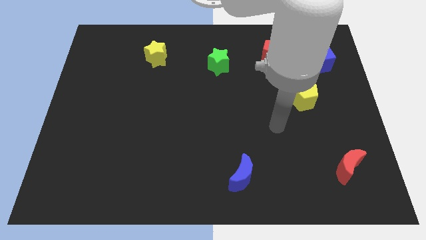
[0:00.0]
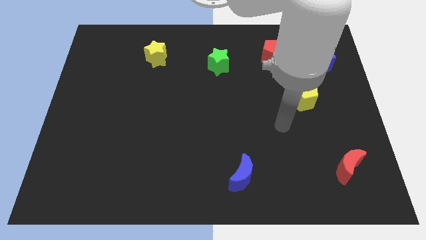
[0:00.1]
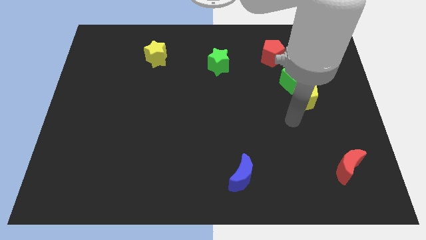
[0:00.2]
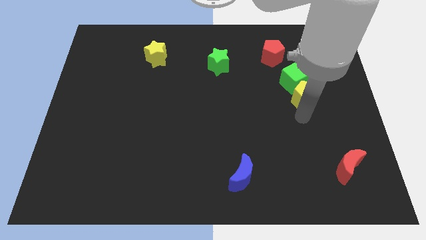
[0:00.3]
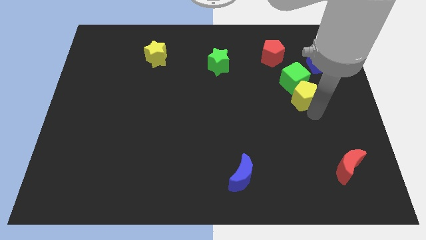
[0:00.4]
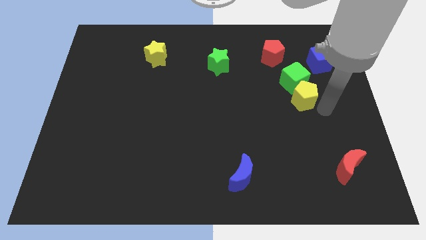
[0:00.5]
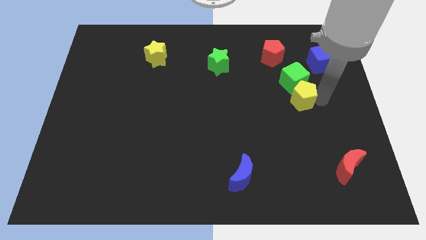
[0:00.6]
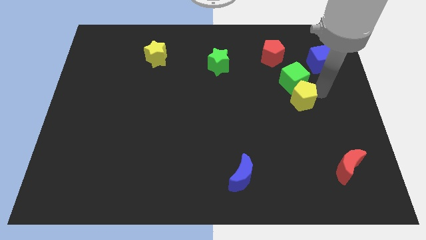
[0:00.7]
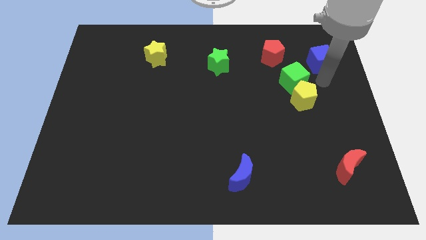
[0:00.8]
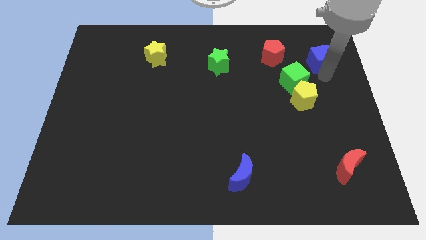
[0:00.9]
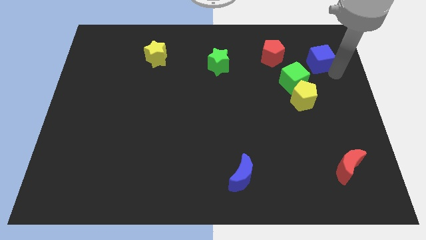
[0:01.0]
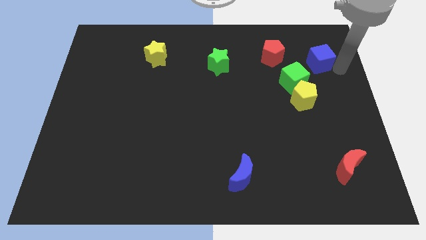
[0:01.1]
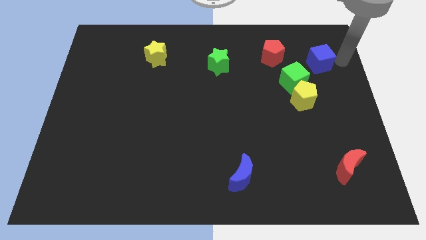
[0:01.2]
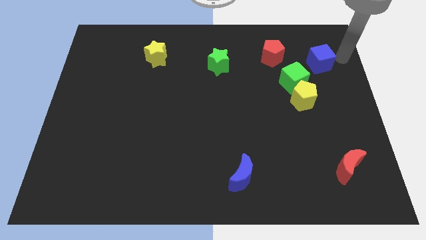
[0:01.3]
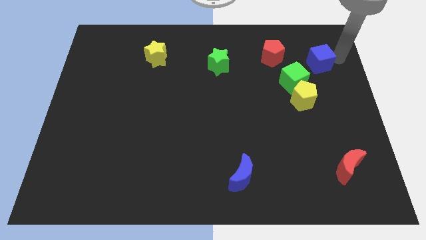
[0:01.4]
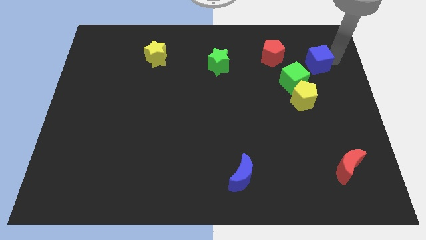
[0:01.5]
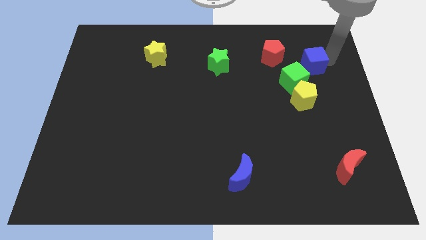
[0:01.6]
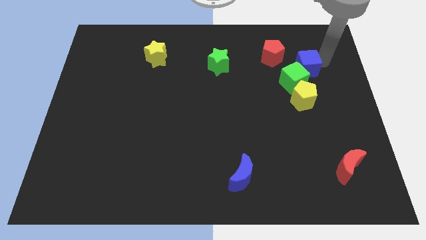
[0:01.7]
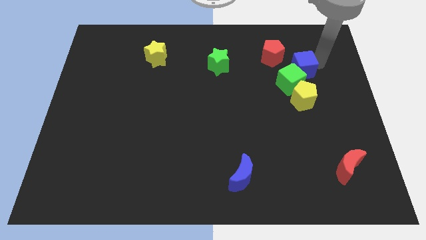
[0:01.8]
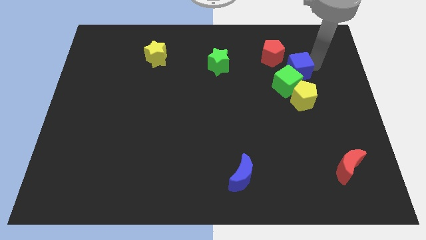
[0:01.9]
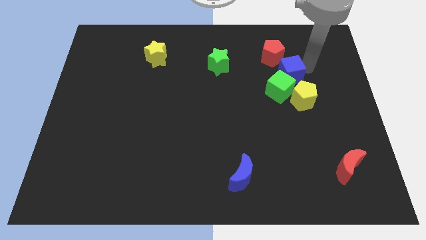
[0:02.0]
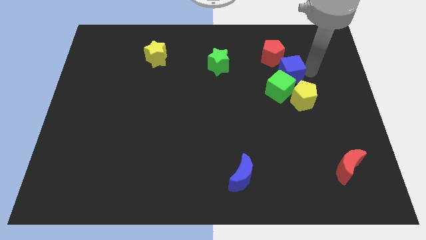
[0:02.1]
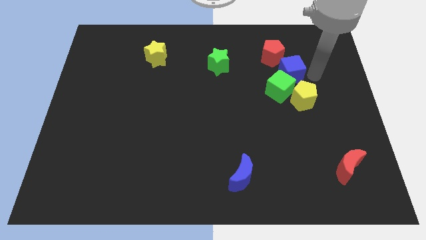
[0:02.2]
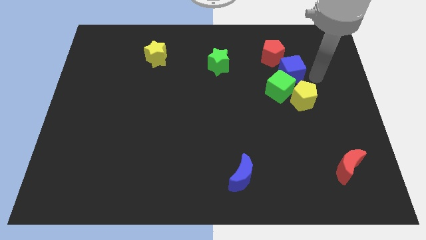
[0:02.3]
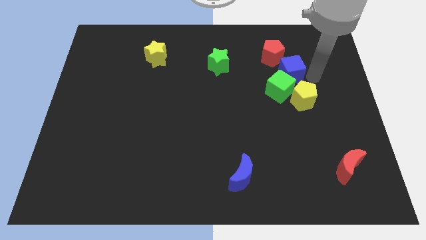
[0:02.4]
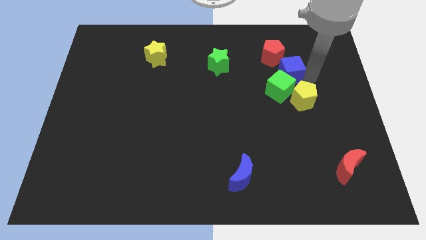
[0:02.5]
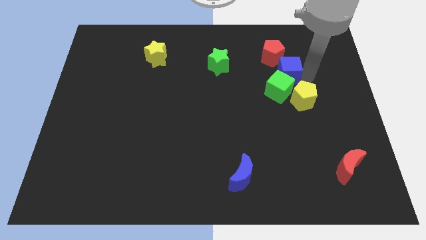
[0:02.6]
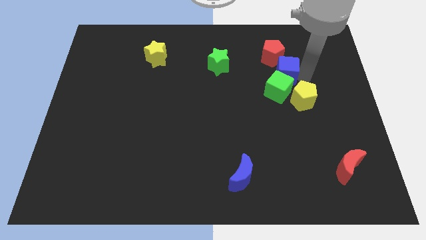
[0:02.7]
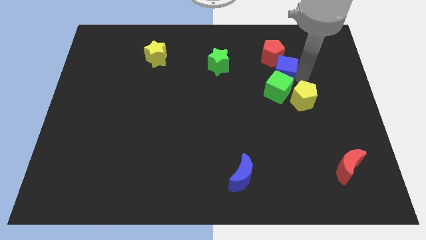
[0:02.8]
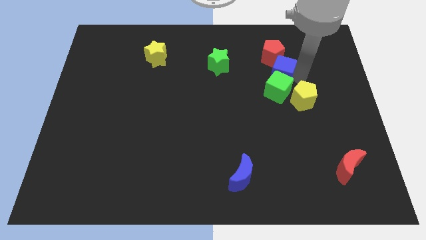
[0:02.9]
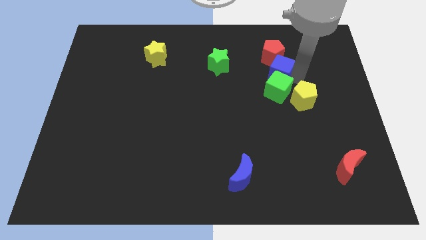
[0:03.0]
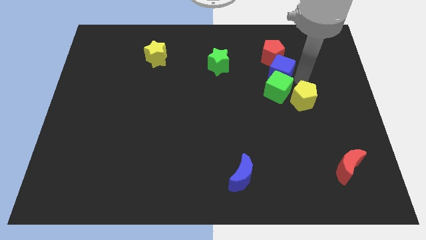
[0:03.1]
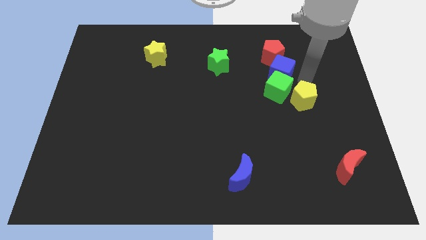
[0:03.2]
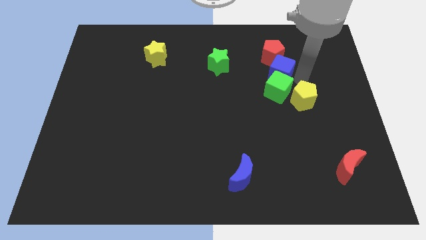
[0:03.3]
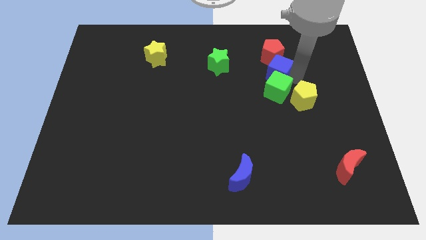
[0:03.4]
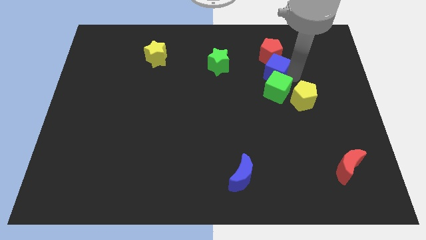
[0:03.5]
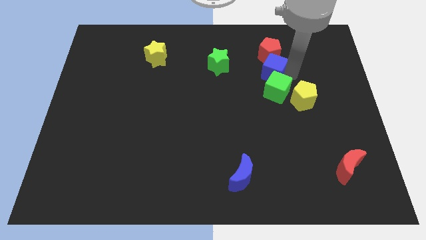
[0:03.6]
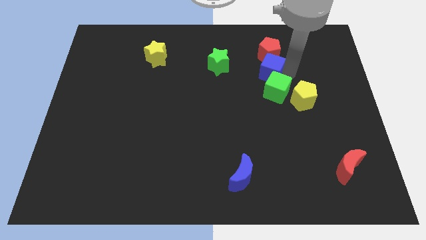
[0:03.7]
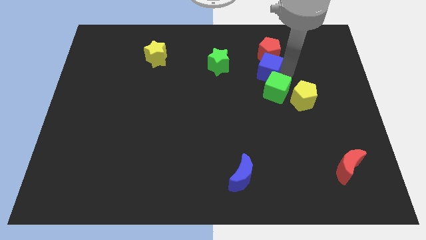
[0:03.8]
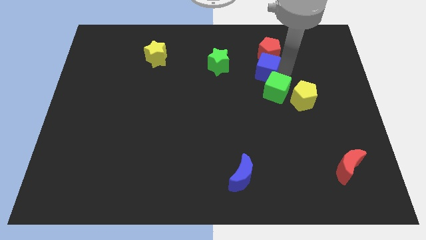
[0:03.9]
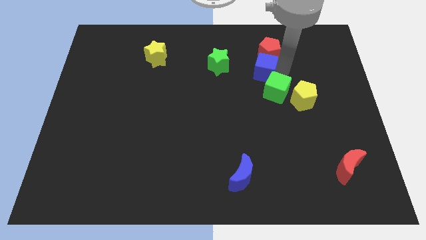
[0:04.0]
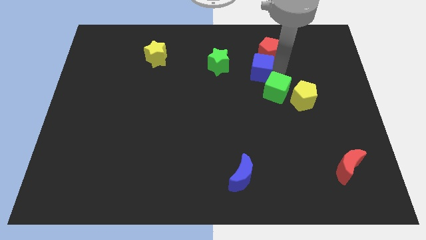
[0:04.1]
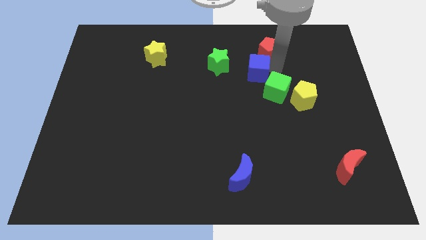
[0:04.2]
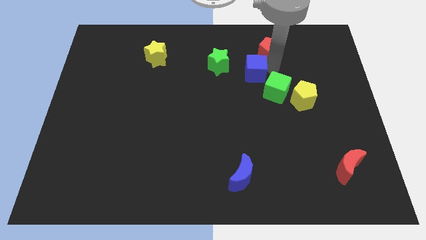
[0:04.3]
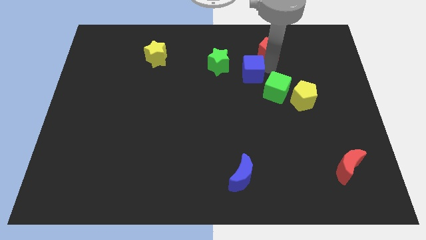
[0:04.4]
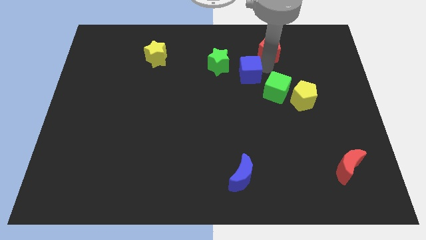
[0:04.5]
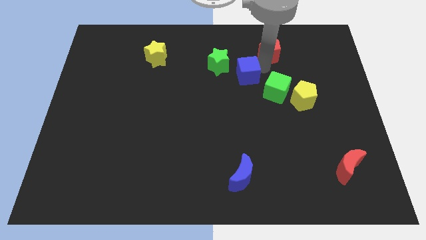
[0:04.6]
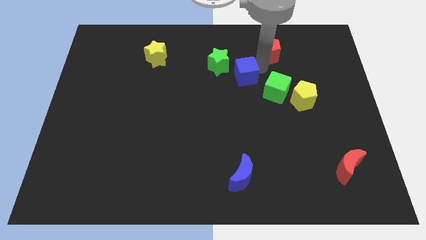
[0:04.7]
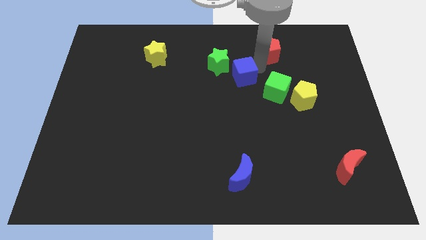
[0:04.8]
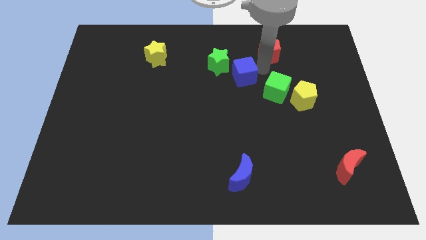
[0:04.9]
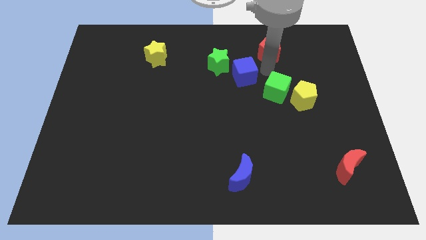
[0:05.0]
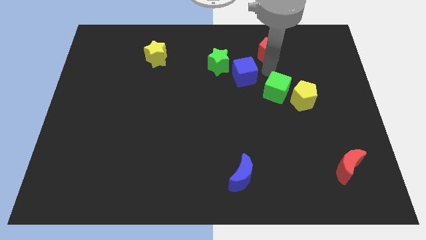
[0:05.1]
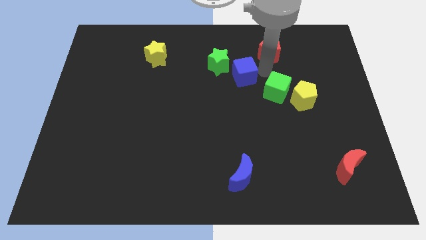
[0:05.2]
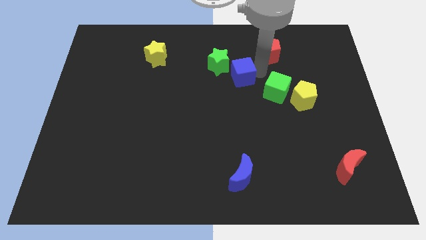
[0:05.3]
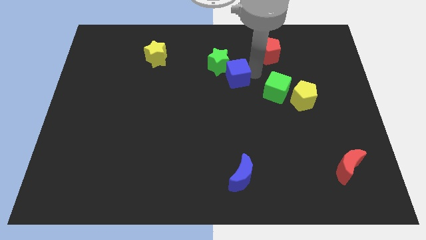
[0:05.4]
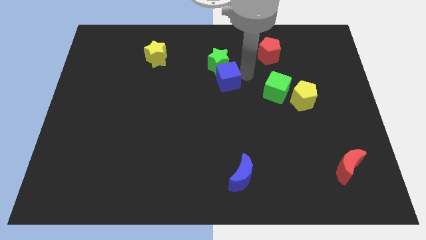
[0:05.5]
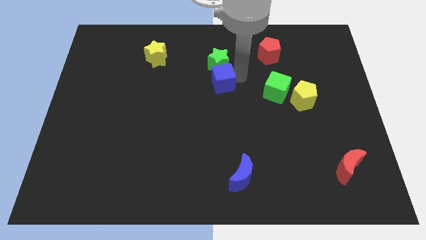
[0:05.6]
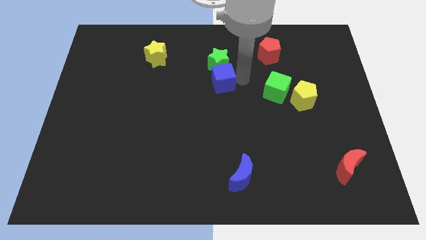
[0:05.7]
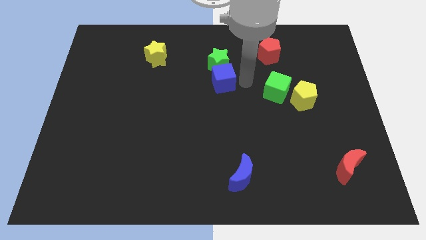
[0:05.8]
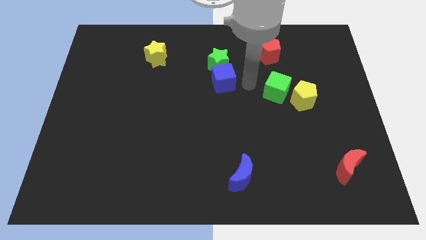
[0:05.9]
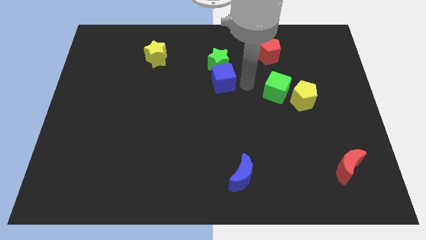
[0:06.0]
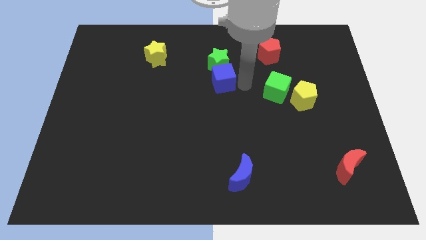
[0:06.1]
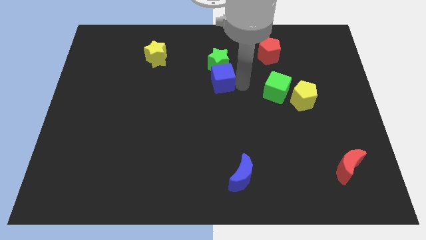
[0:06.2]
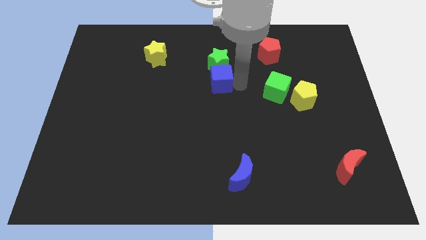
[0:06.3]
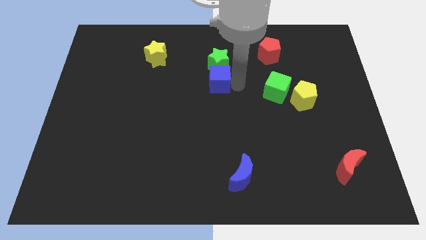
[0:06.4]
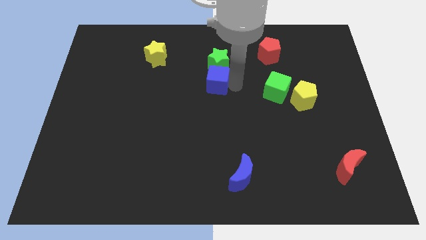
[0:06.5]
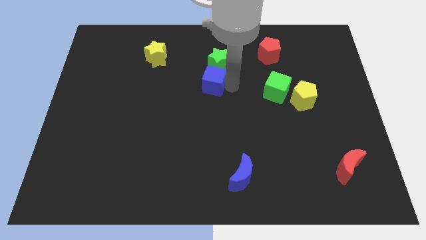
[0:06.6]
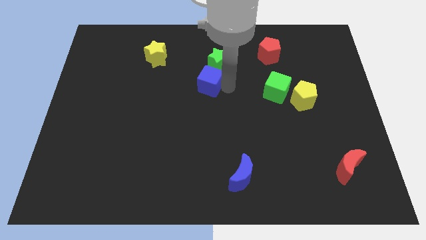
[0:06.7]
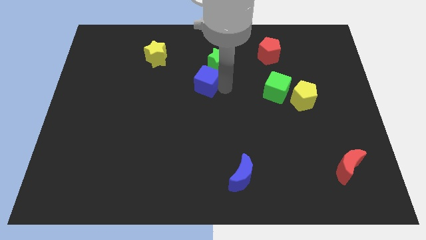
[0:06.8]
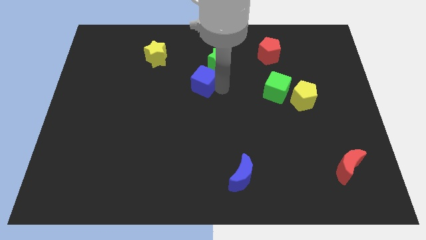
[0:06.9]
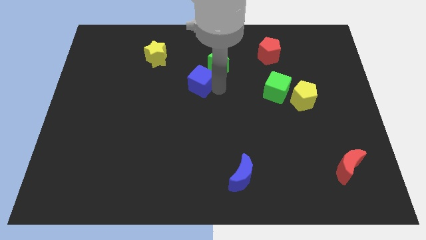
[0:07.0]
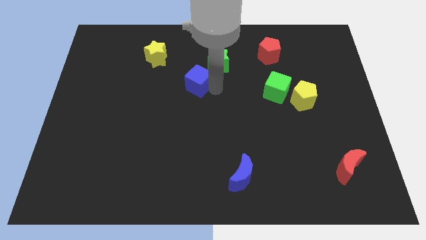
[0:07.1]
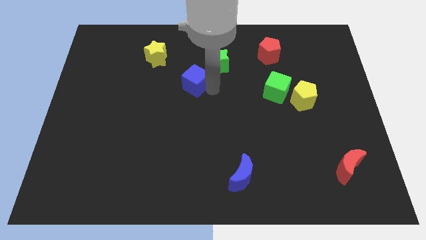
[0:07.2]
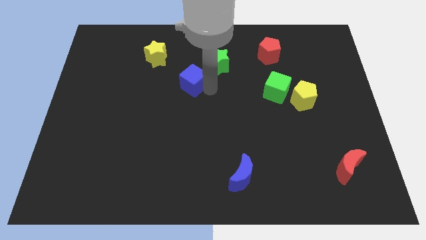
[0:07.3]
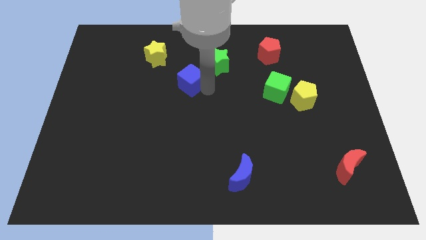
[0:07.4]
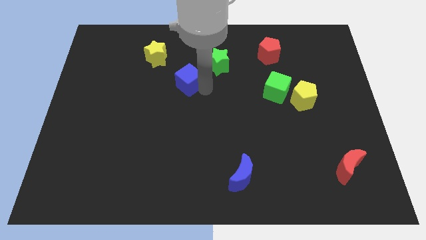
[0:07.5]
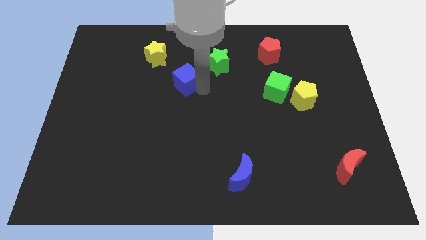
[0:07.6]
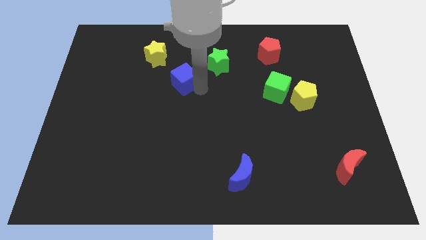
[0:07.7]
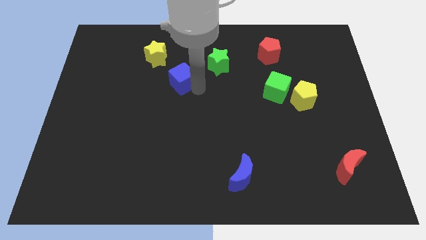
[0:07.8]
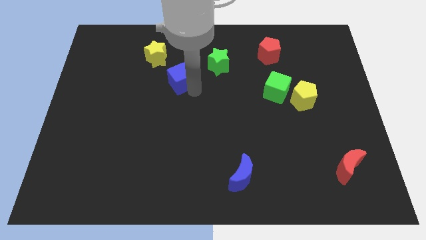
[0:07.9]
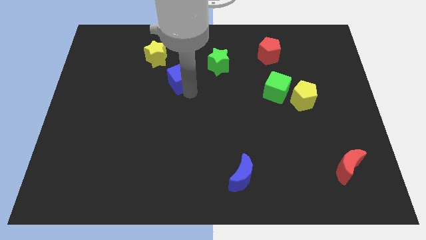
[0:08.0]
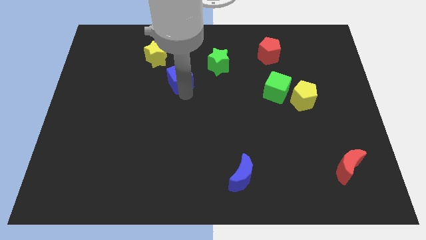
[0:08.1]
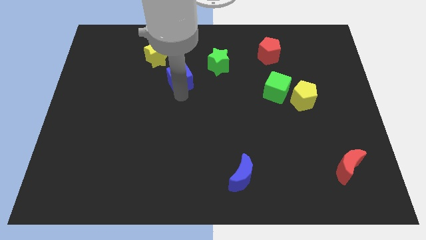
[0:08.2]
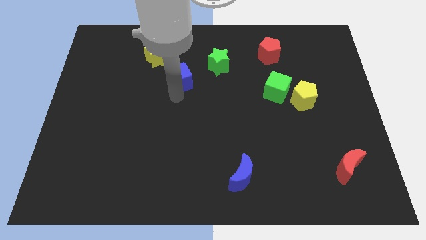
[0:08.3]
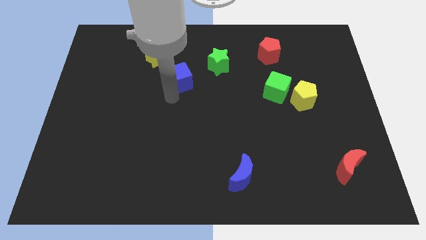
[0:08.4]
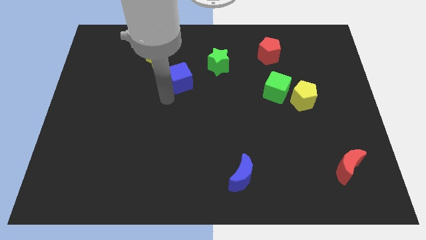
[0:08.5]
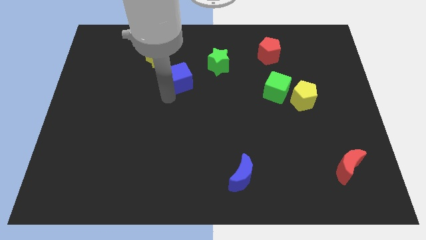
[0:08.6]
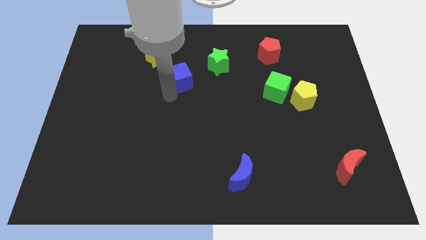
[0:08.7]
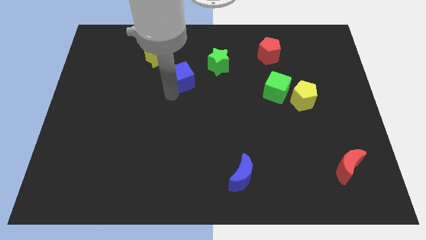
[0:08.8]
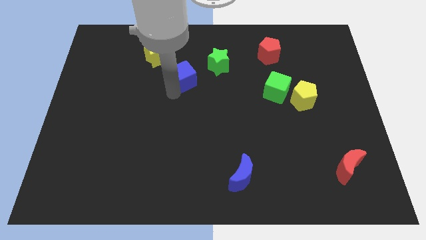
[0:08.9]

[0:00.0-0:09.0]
push the blue cube left of the green star
